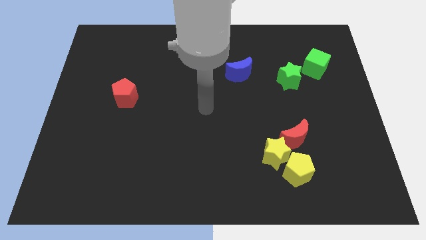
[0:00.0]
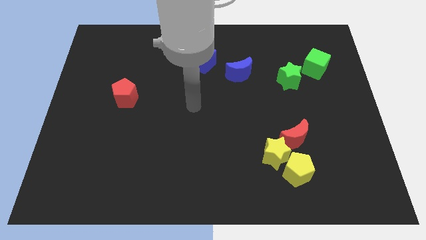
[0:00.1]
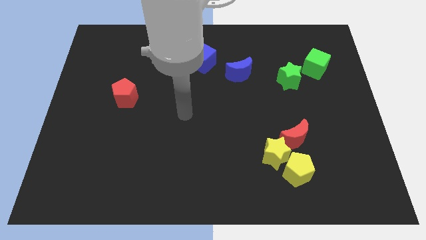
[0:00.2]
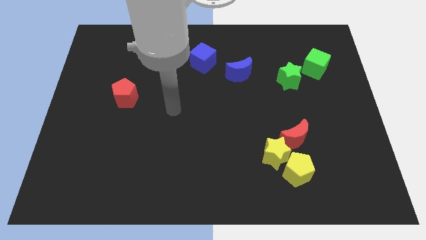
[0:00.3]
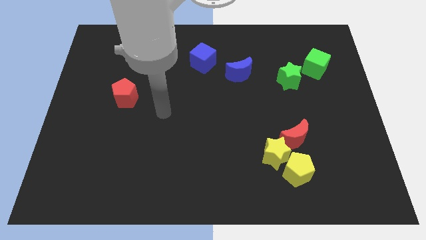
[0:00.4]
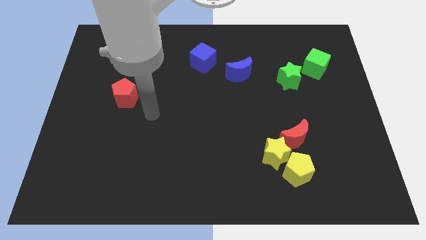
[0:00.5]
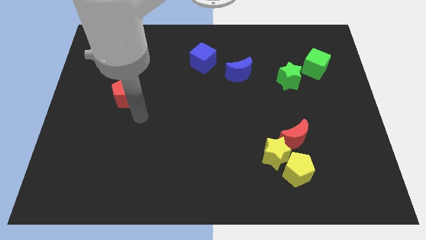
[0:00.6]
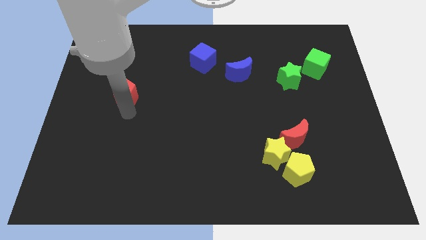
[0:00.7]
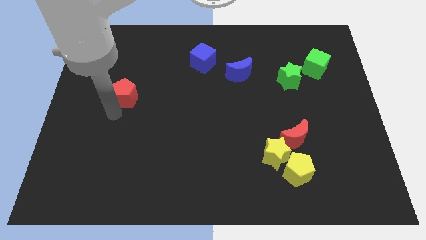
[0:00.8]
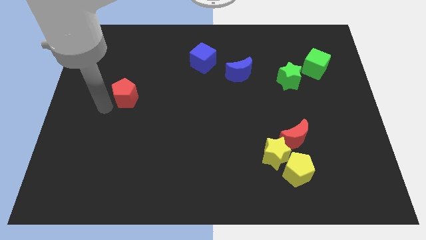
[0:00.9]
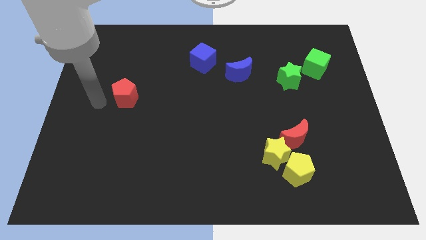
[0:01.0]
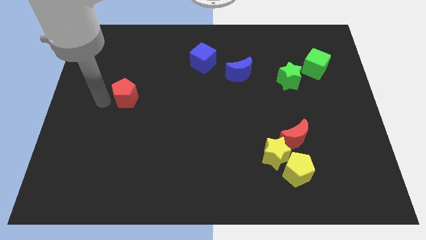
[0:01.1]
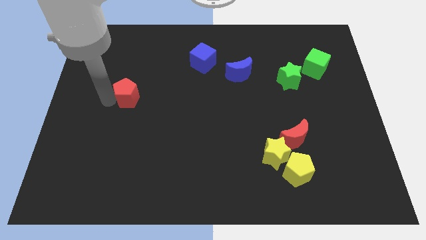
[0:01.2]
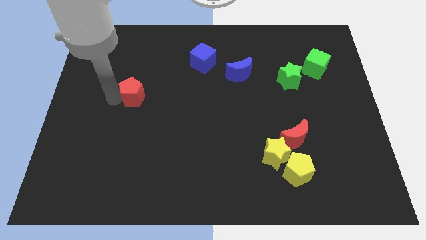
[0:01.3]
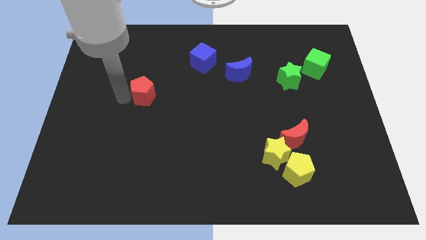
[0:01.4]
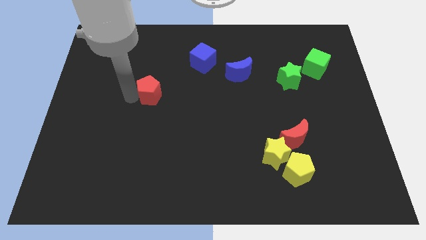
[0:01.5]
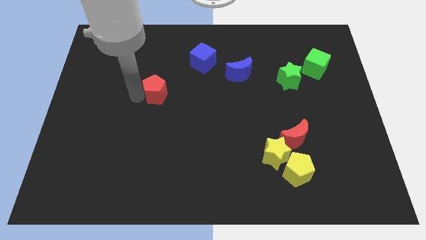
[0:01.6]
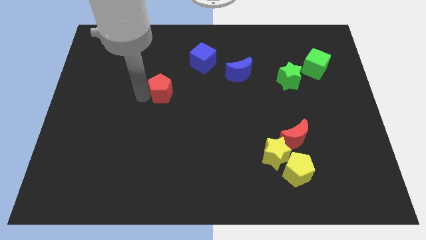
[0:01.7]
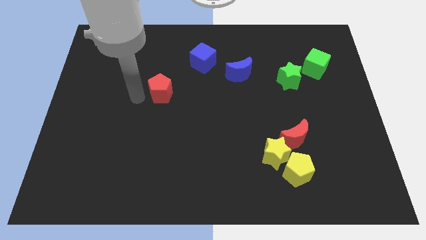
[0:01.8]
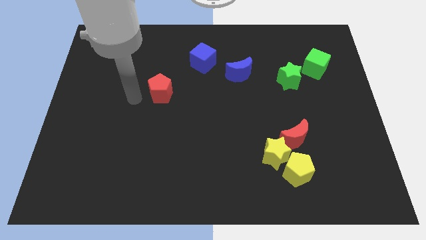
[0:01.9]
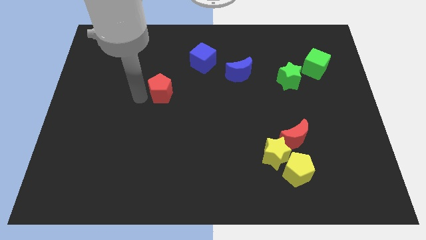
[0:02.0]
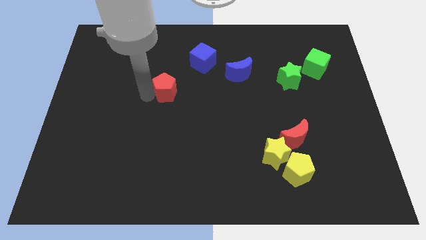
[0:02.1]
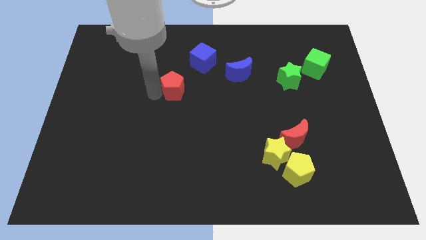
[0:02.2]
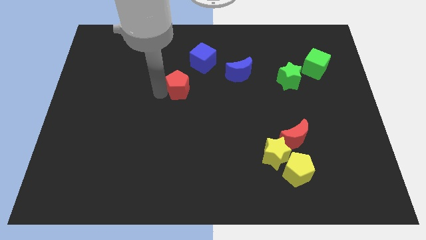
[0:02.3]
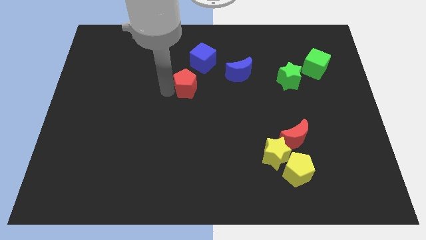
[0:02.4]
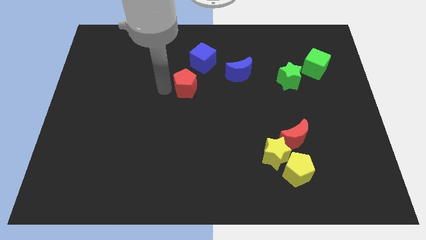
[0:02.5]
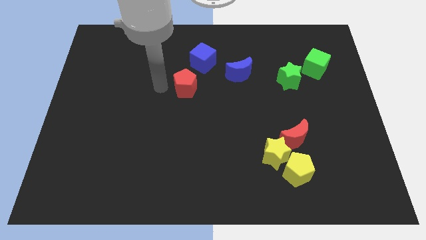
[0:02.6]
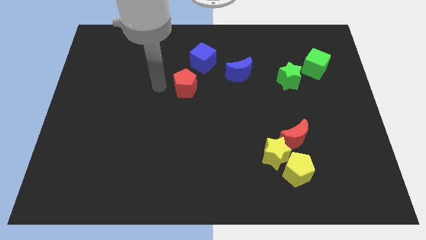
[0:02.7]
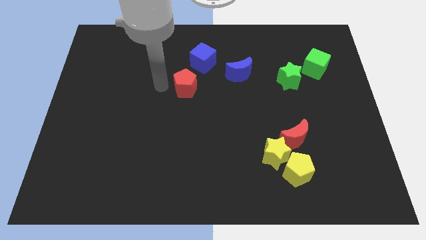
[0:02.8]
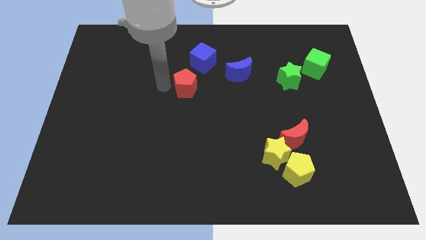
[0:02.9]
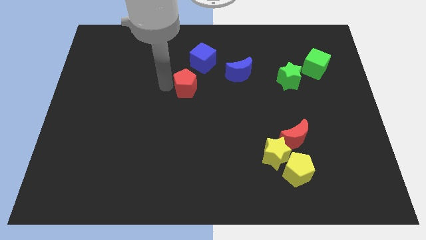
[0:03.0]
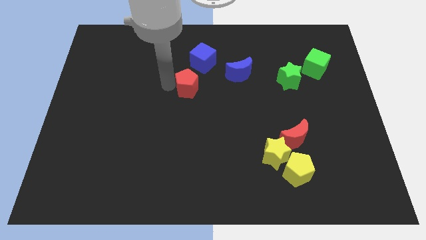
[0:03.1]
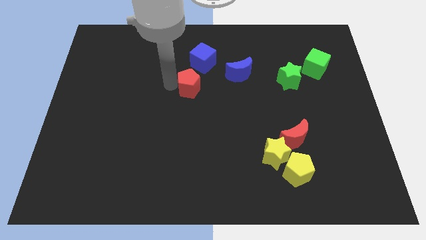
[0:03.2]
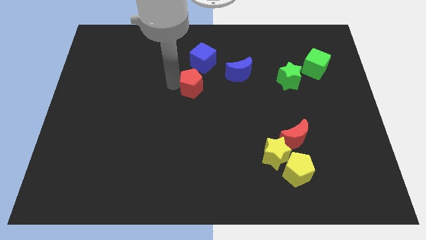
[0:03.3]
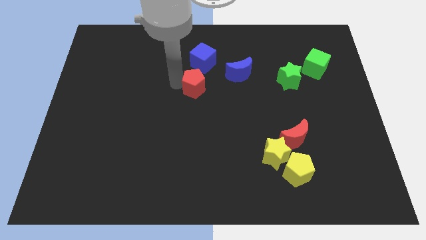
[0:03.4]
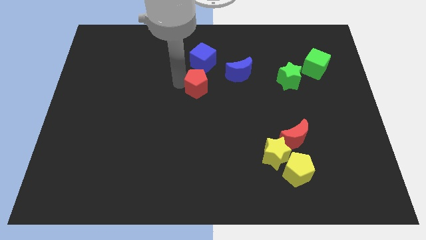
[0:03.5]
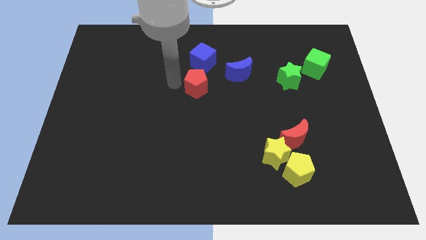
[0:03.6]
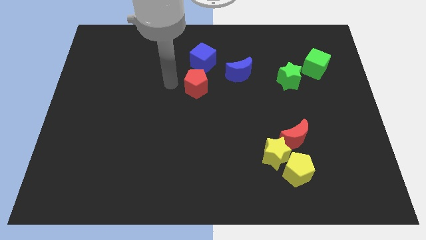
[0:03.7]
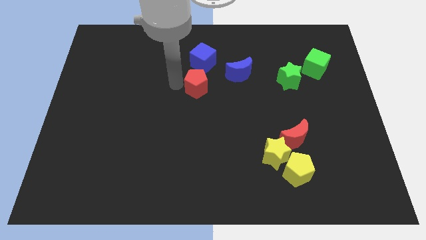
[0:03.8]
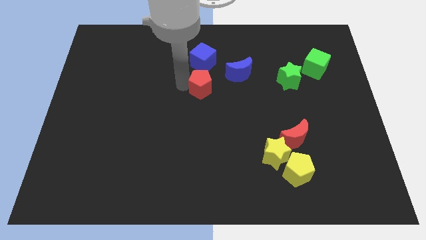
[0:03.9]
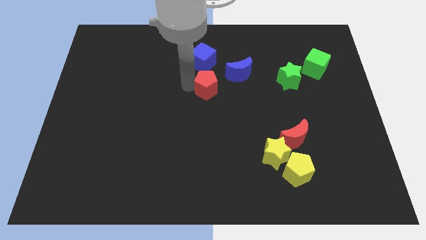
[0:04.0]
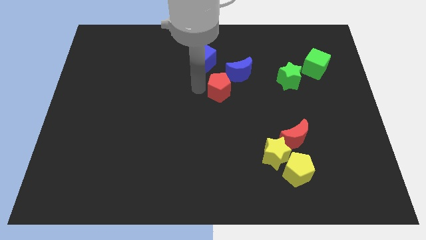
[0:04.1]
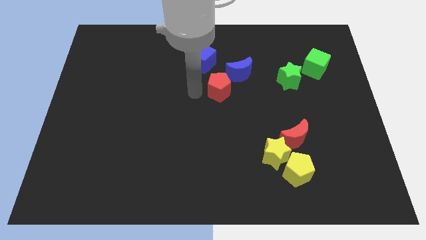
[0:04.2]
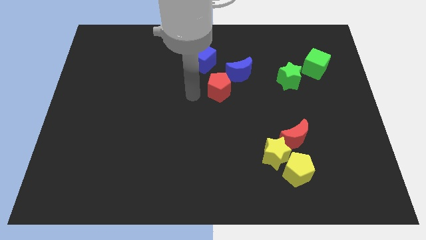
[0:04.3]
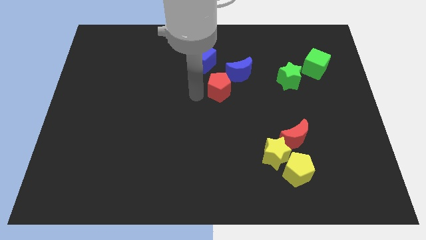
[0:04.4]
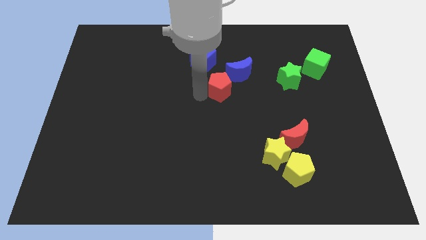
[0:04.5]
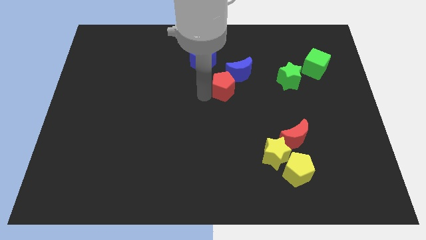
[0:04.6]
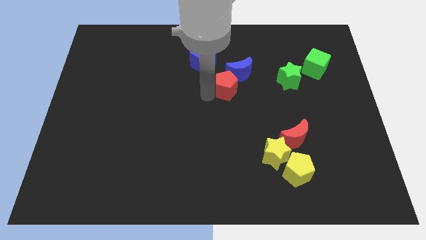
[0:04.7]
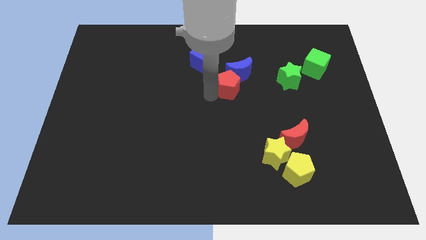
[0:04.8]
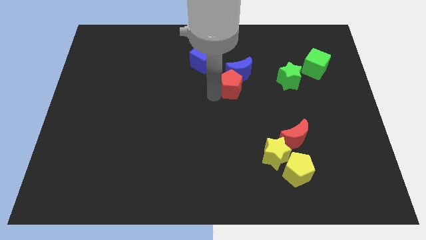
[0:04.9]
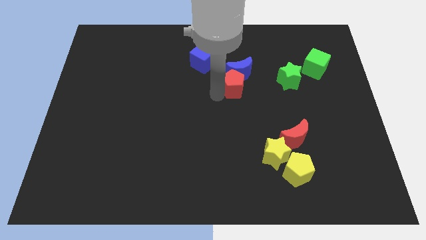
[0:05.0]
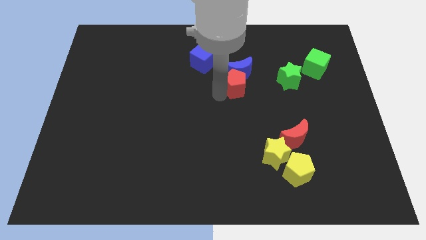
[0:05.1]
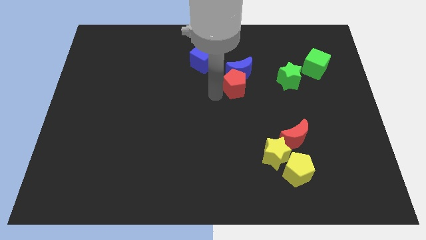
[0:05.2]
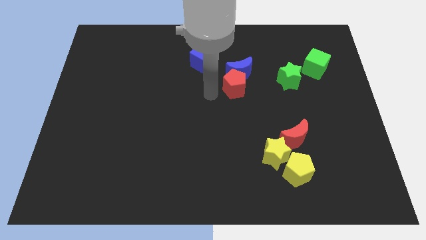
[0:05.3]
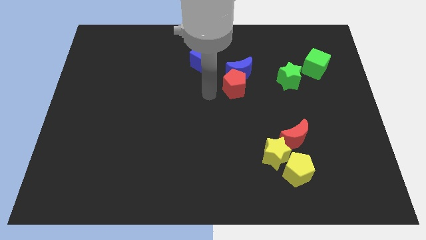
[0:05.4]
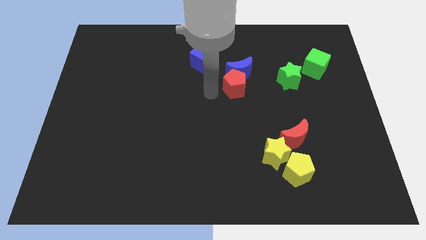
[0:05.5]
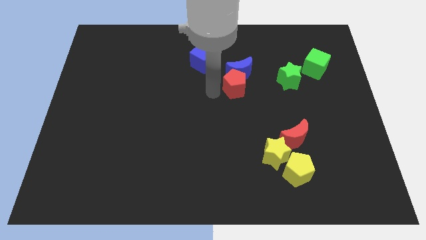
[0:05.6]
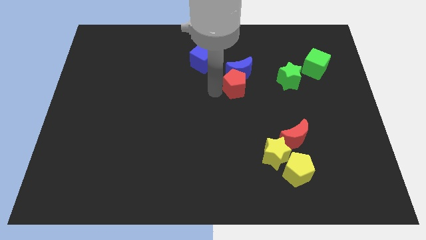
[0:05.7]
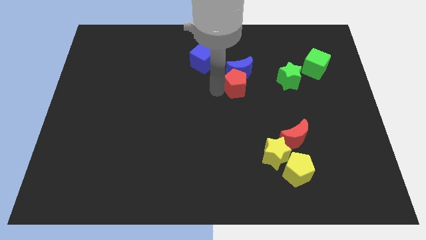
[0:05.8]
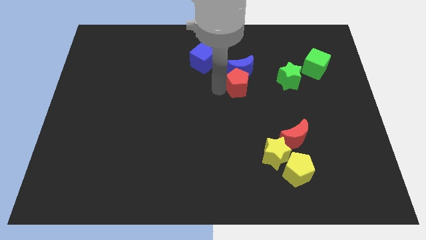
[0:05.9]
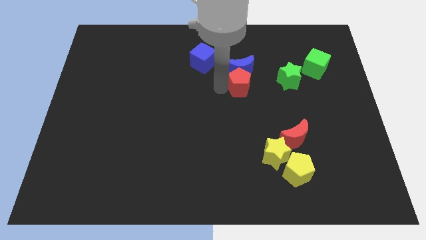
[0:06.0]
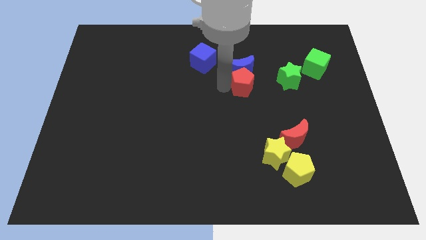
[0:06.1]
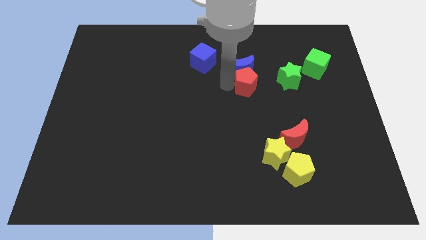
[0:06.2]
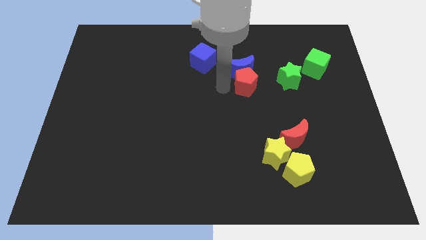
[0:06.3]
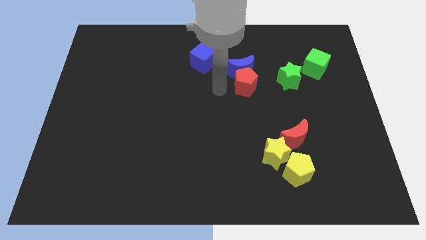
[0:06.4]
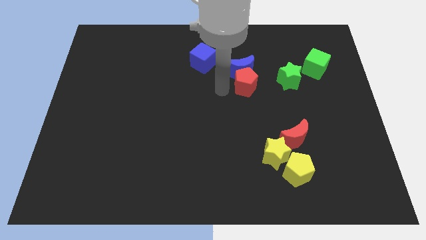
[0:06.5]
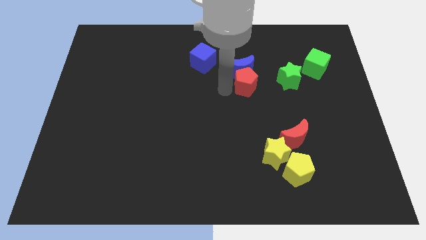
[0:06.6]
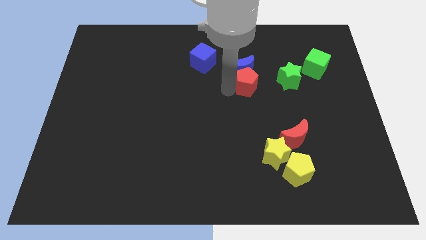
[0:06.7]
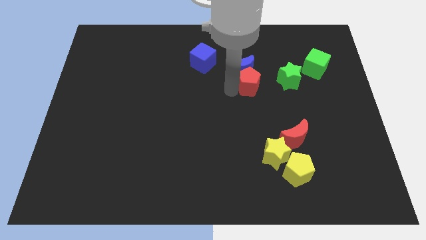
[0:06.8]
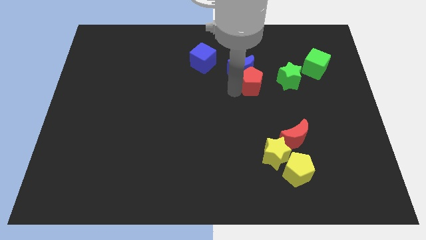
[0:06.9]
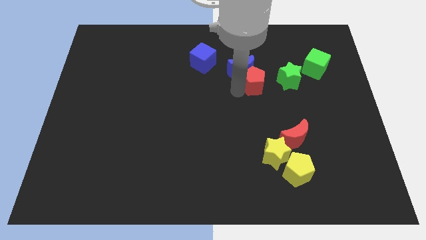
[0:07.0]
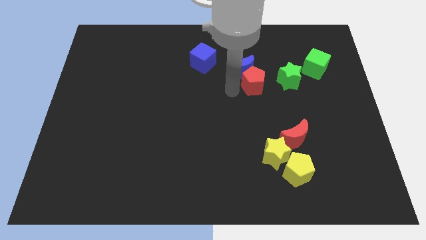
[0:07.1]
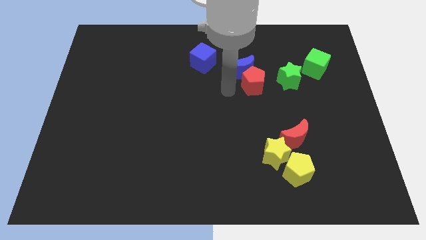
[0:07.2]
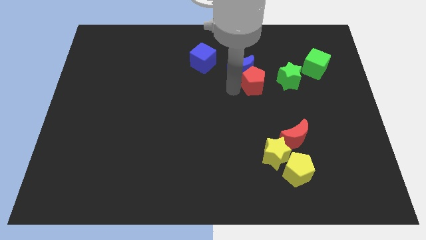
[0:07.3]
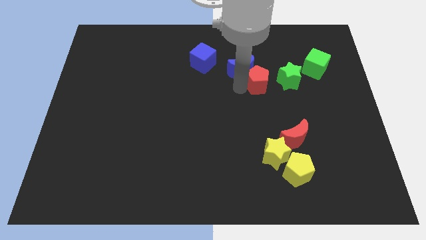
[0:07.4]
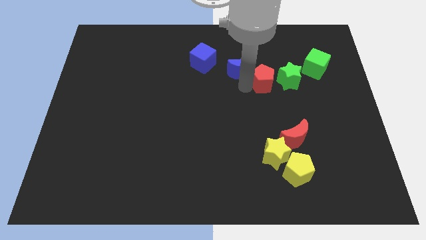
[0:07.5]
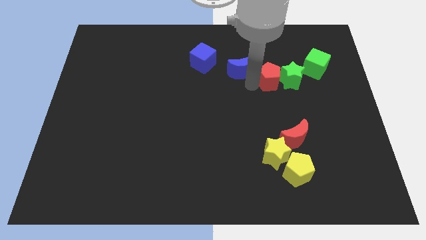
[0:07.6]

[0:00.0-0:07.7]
put the red pentagon to the green star
